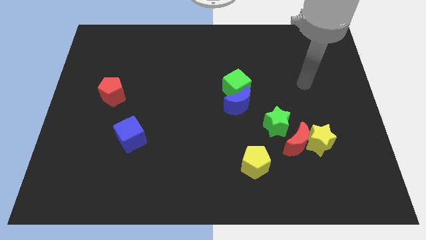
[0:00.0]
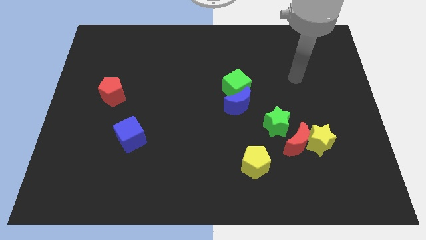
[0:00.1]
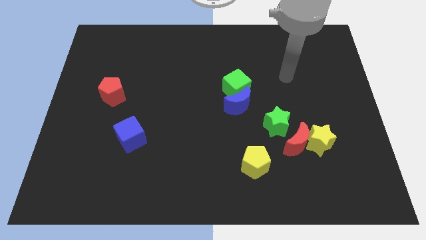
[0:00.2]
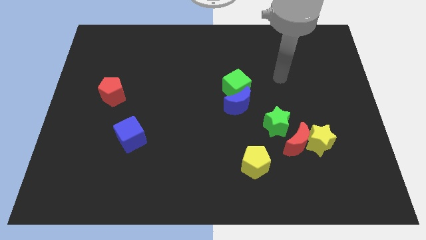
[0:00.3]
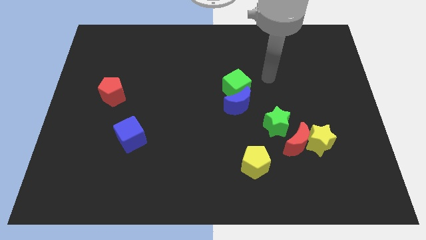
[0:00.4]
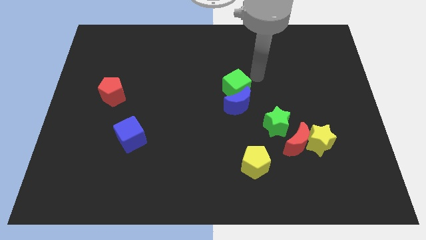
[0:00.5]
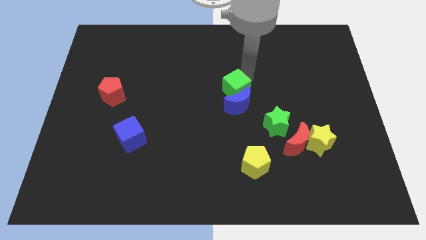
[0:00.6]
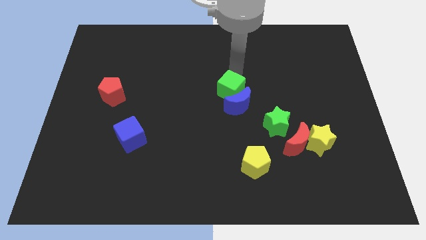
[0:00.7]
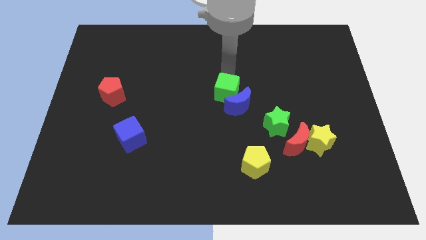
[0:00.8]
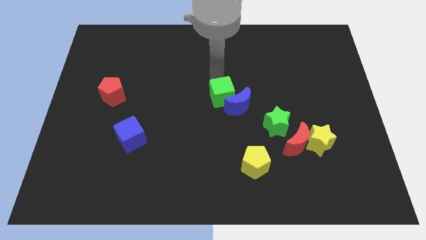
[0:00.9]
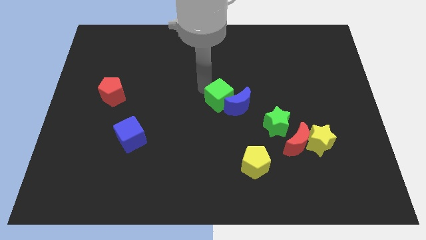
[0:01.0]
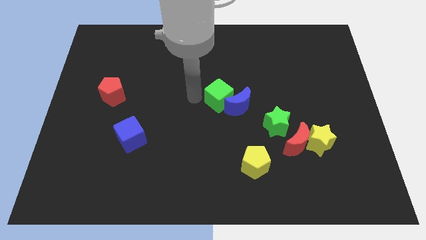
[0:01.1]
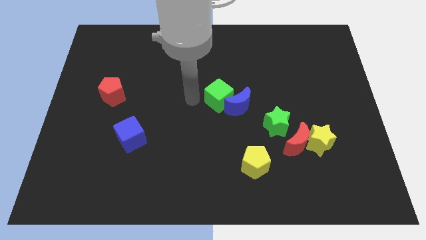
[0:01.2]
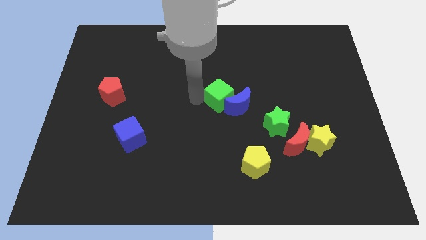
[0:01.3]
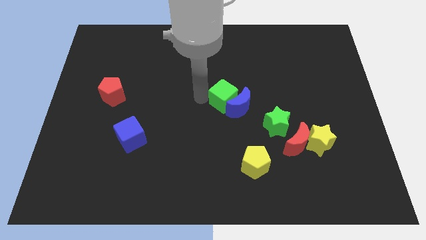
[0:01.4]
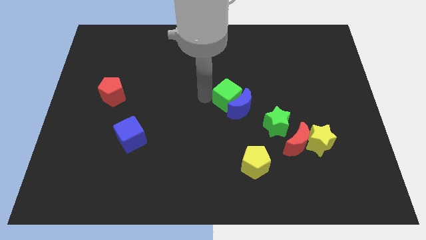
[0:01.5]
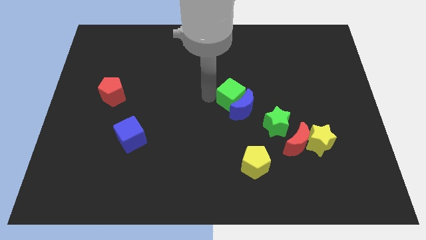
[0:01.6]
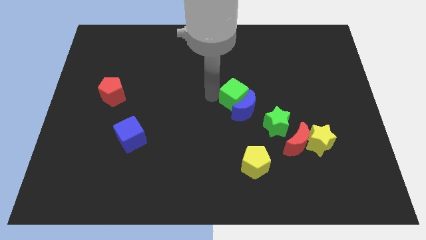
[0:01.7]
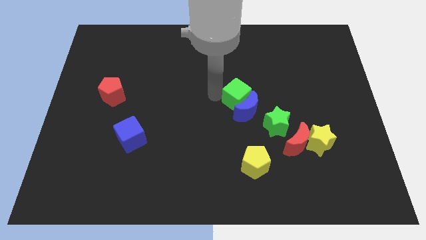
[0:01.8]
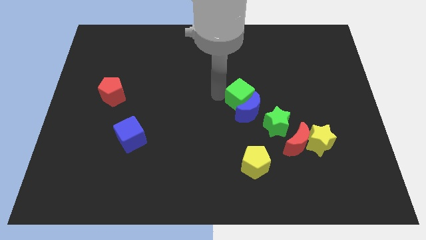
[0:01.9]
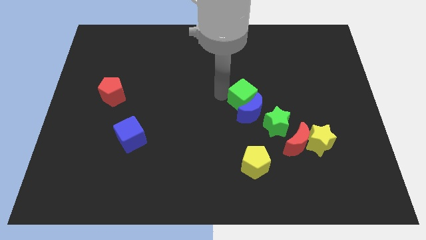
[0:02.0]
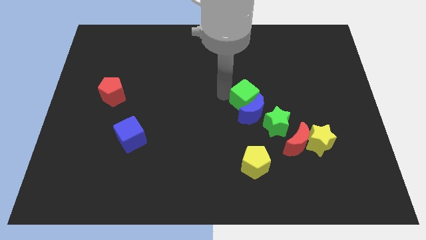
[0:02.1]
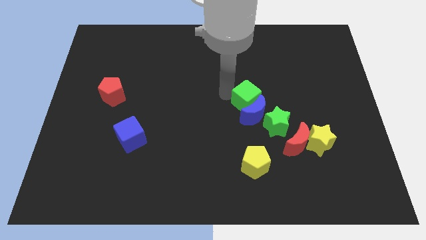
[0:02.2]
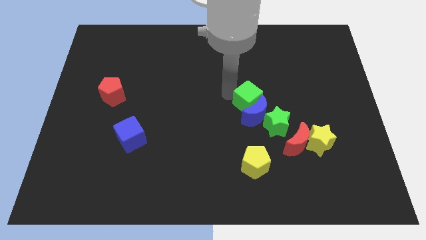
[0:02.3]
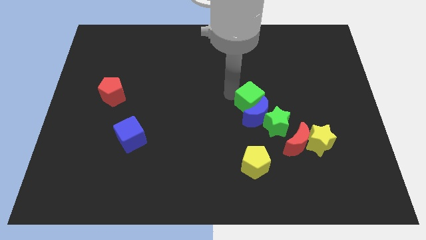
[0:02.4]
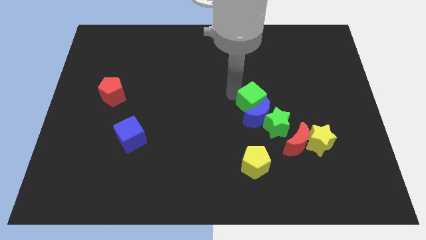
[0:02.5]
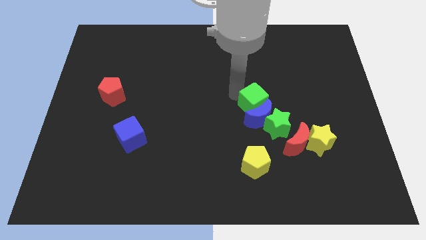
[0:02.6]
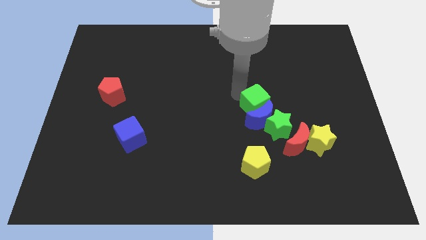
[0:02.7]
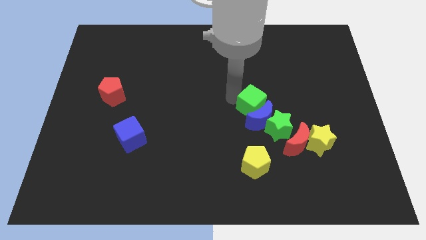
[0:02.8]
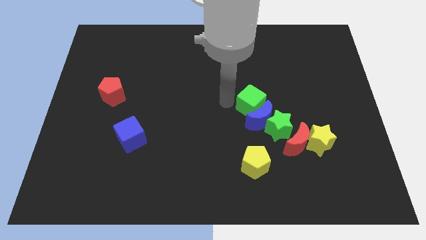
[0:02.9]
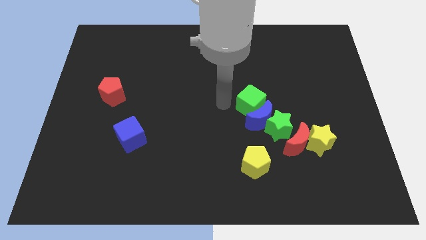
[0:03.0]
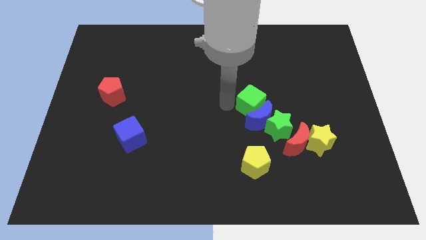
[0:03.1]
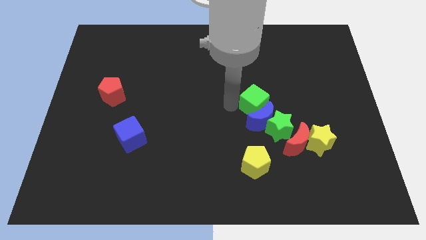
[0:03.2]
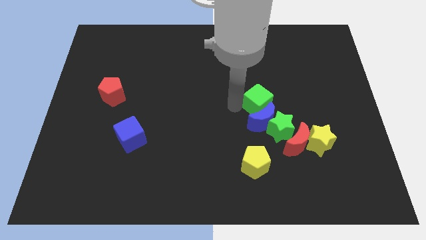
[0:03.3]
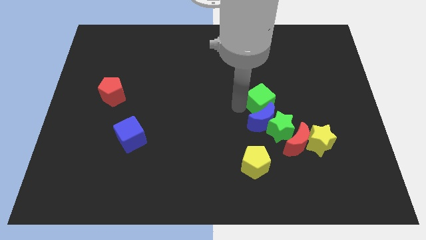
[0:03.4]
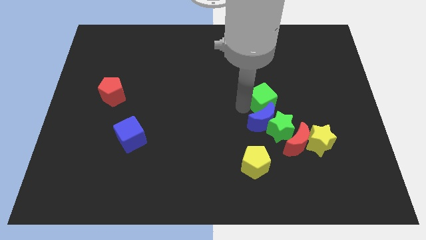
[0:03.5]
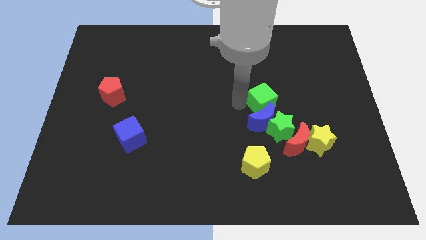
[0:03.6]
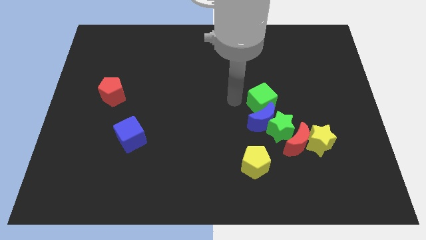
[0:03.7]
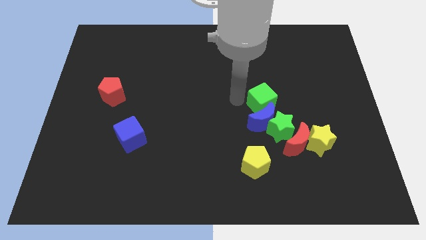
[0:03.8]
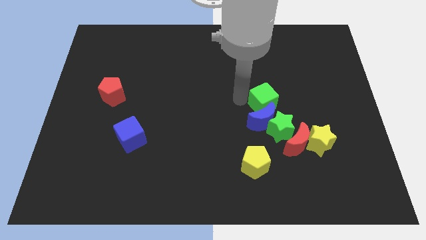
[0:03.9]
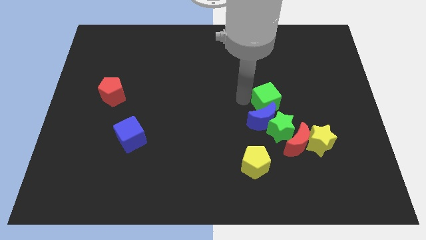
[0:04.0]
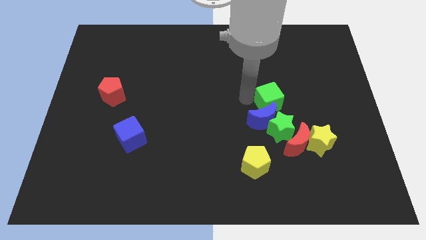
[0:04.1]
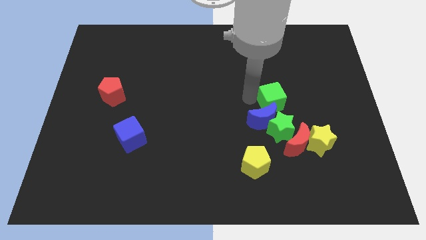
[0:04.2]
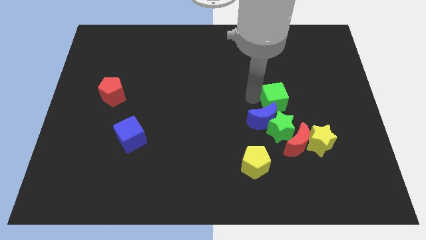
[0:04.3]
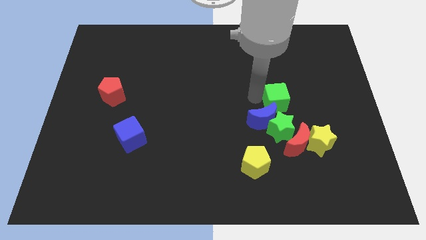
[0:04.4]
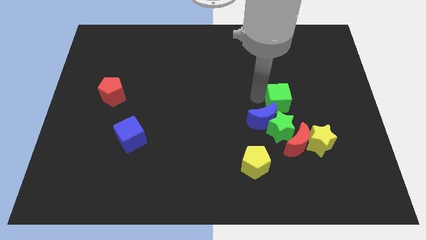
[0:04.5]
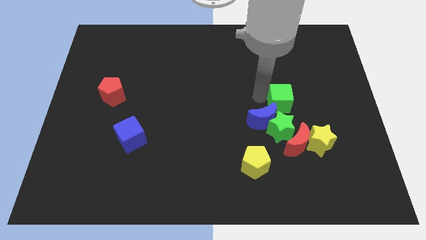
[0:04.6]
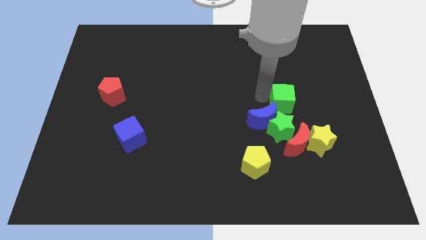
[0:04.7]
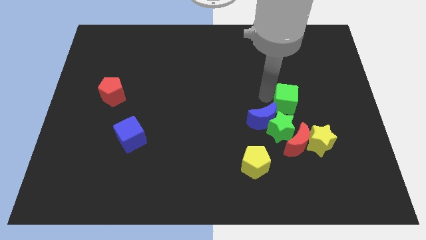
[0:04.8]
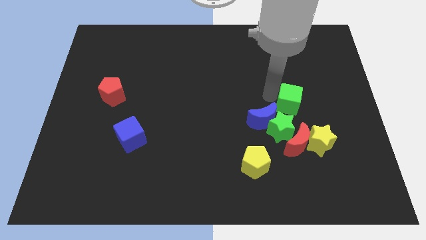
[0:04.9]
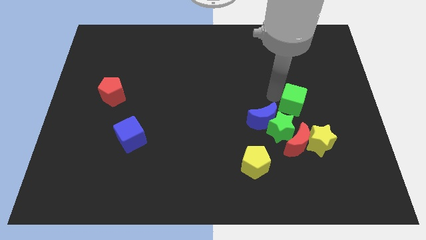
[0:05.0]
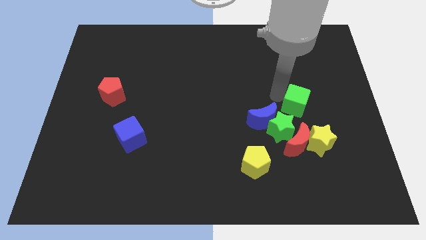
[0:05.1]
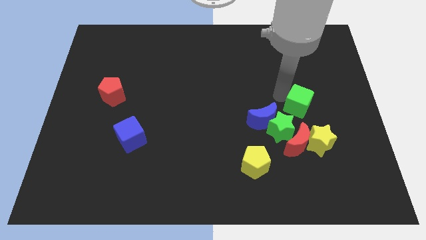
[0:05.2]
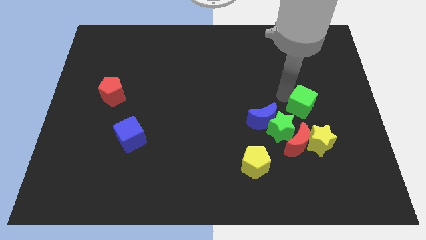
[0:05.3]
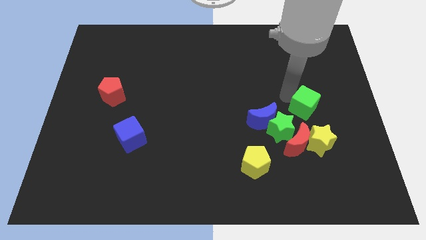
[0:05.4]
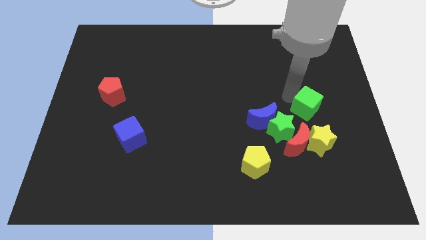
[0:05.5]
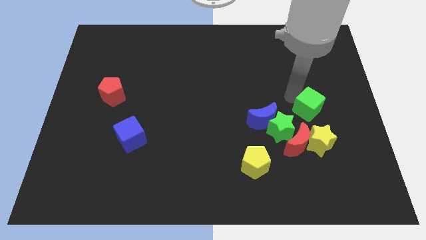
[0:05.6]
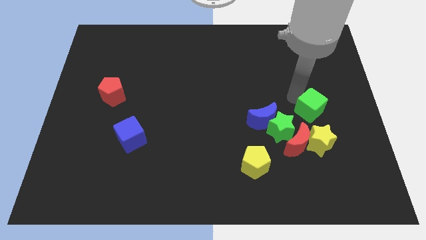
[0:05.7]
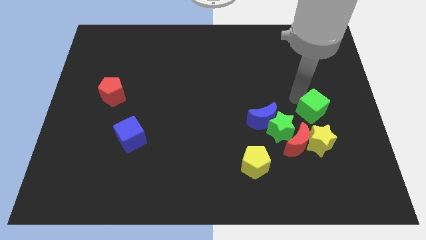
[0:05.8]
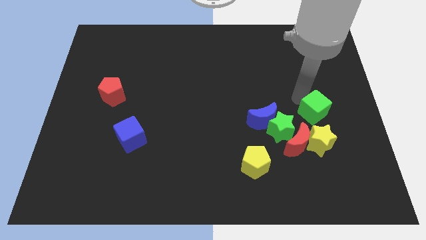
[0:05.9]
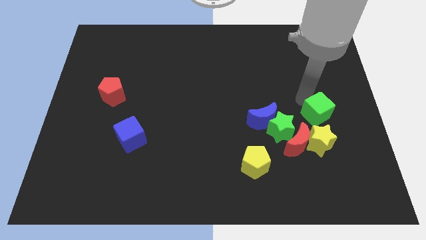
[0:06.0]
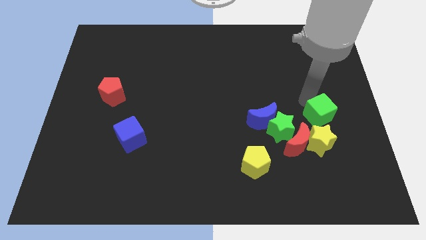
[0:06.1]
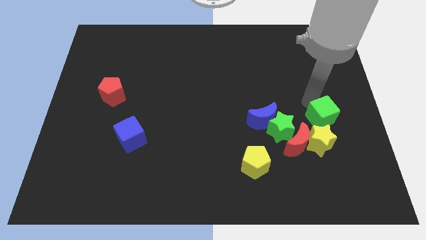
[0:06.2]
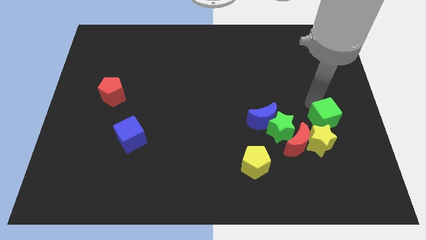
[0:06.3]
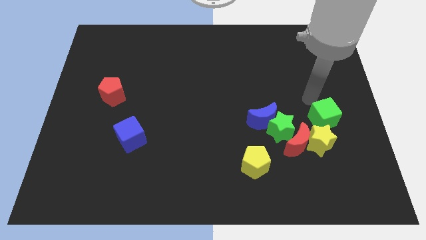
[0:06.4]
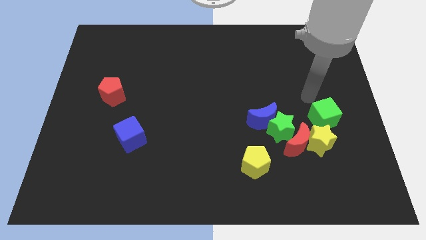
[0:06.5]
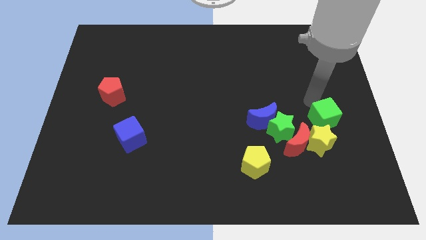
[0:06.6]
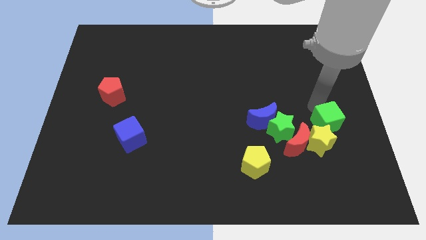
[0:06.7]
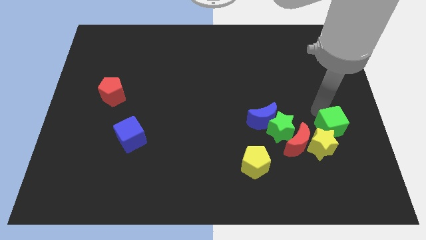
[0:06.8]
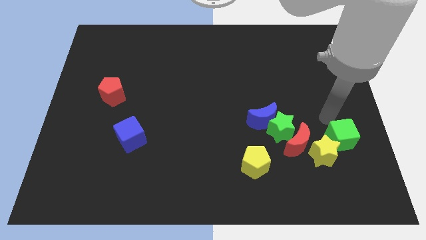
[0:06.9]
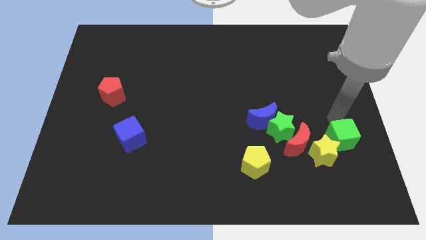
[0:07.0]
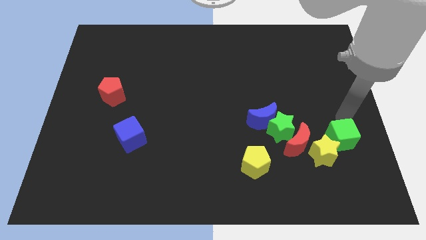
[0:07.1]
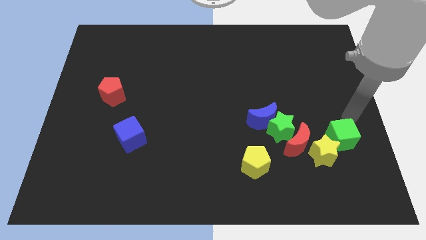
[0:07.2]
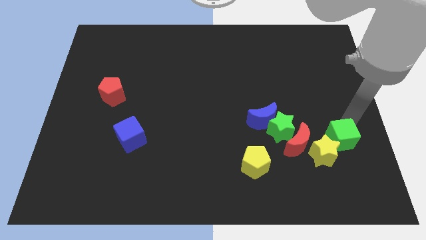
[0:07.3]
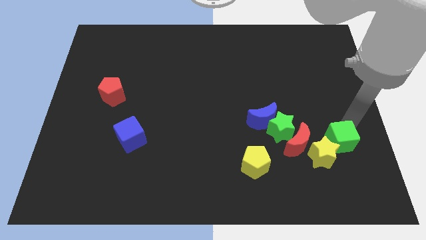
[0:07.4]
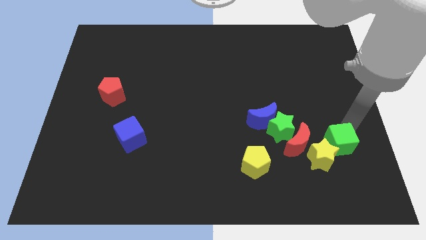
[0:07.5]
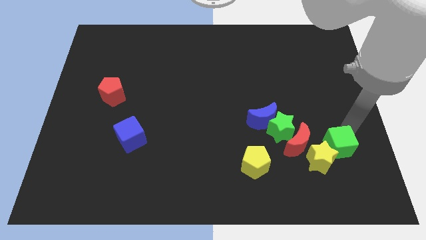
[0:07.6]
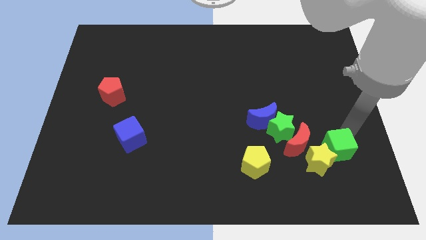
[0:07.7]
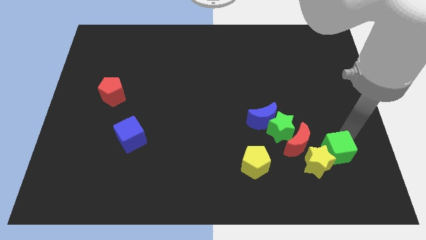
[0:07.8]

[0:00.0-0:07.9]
slide the green cube to the bottom right of the red moon
